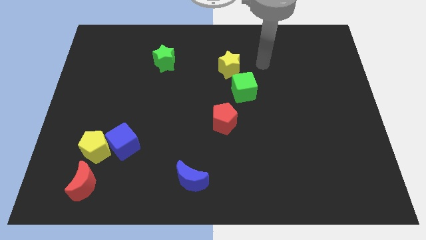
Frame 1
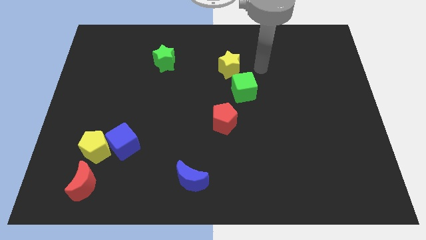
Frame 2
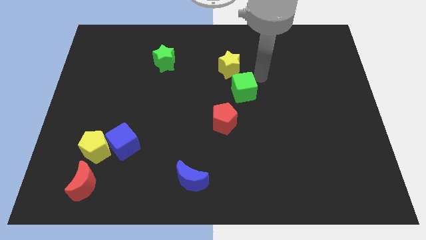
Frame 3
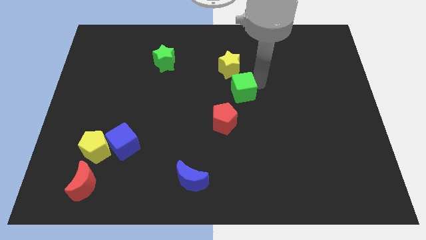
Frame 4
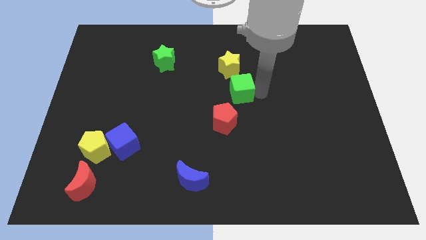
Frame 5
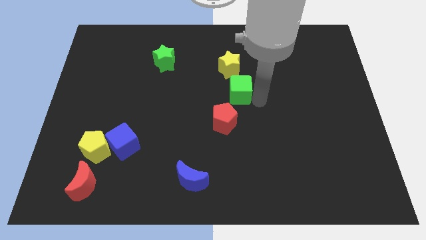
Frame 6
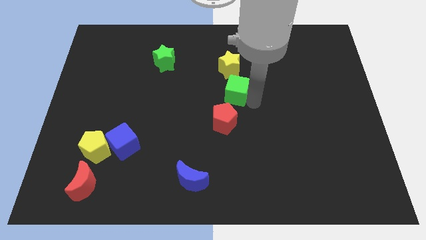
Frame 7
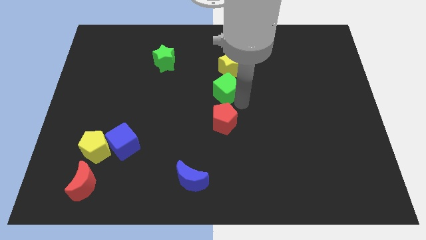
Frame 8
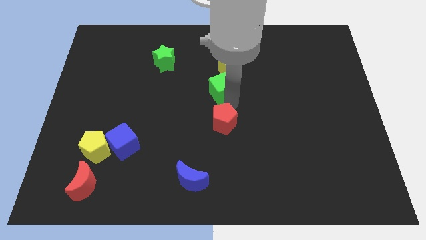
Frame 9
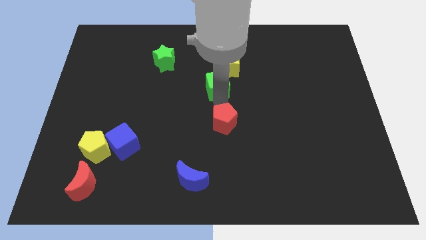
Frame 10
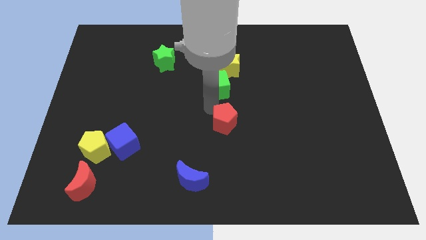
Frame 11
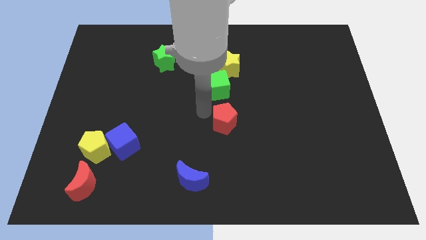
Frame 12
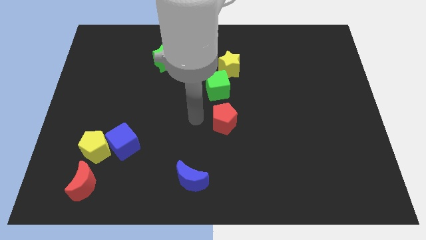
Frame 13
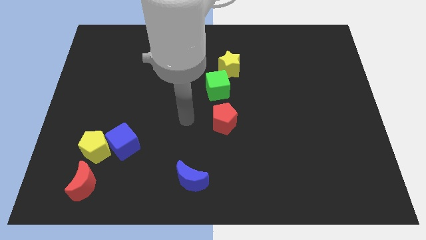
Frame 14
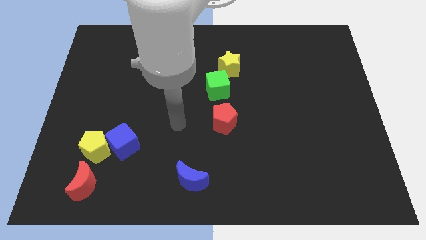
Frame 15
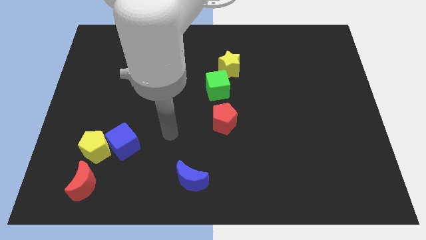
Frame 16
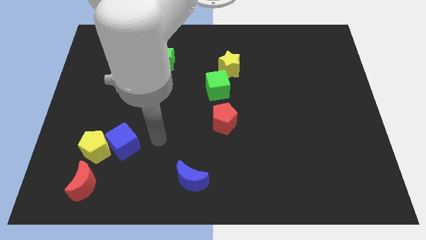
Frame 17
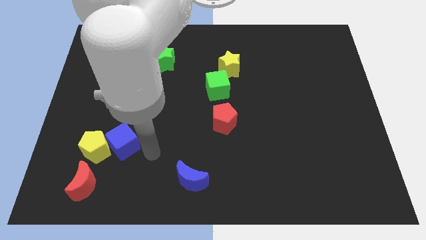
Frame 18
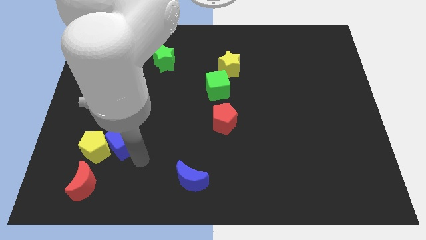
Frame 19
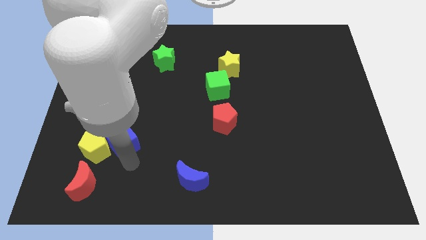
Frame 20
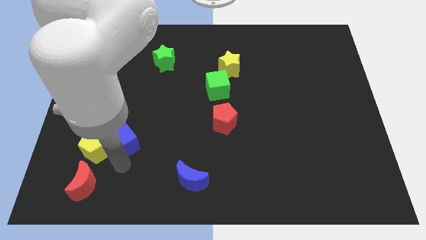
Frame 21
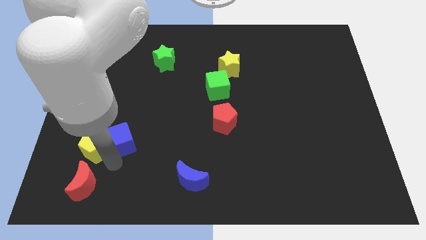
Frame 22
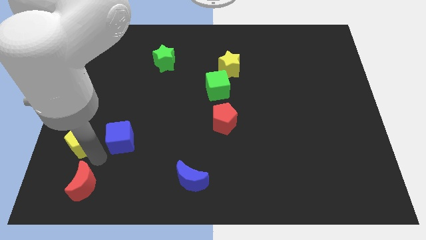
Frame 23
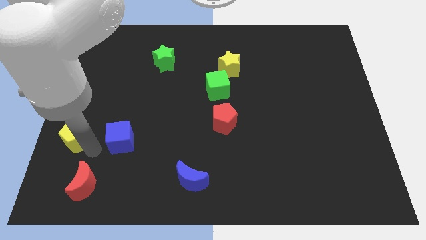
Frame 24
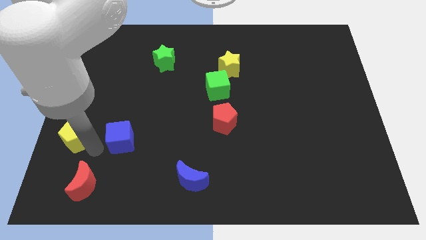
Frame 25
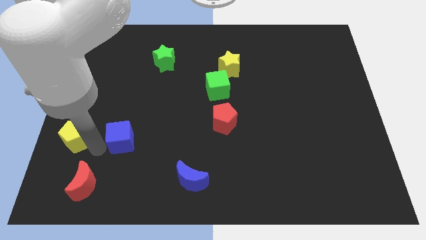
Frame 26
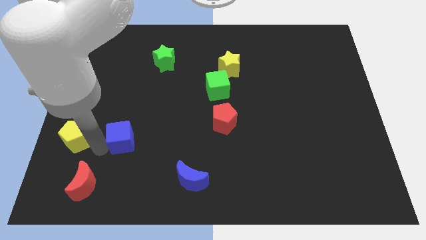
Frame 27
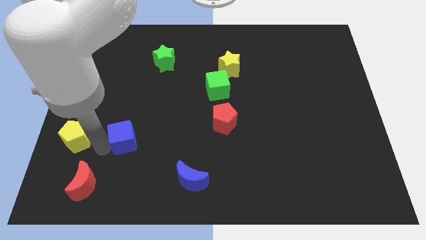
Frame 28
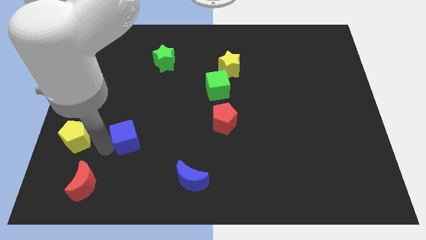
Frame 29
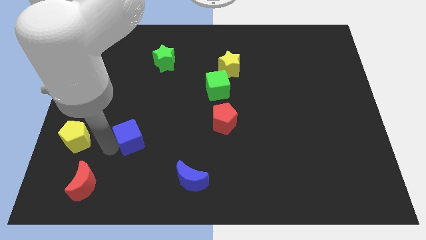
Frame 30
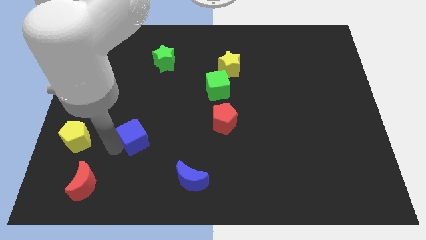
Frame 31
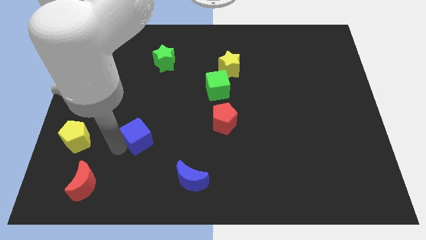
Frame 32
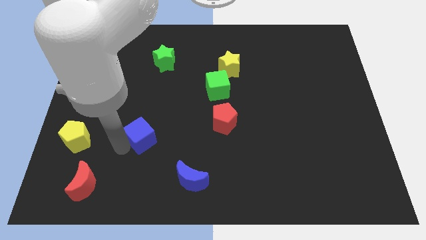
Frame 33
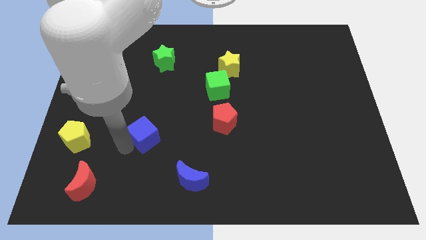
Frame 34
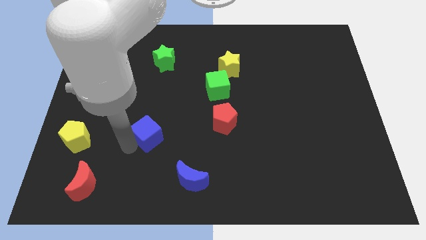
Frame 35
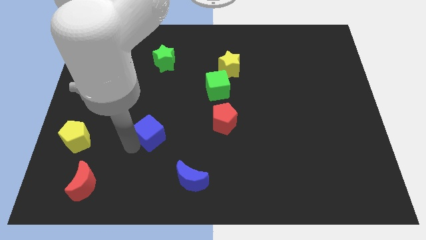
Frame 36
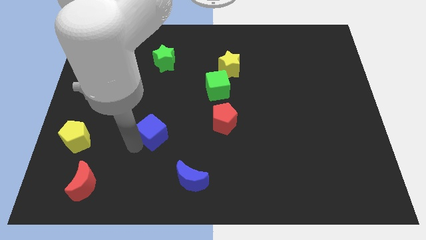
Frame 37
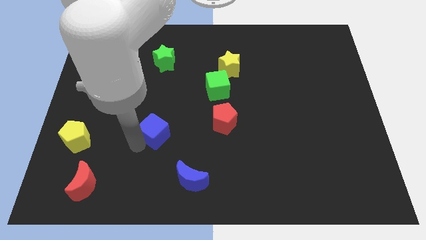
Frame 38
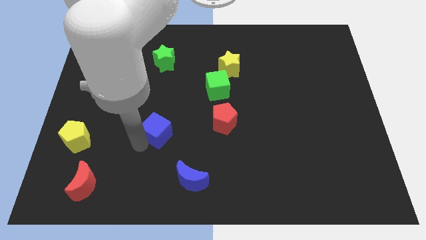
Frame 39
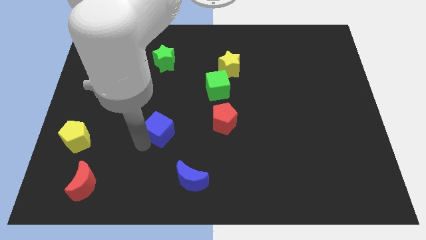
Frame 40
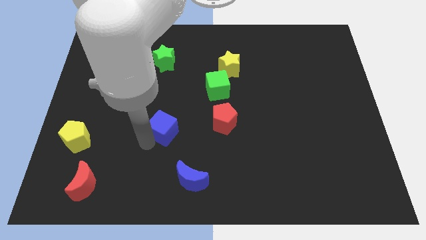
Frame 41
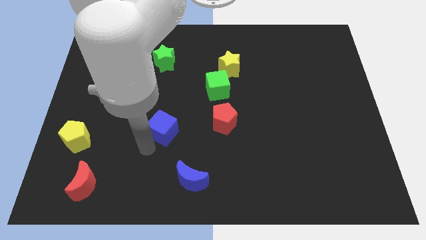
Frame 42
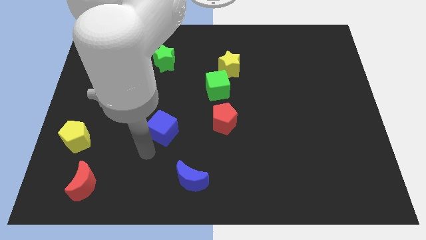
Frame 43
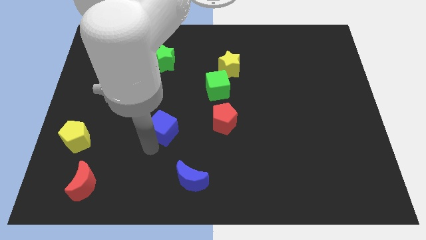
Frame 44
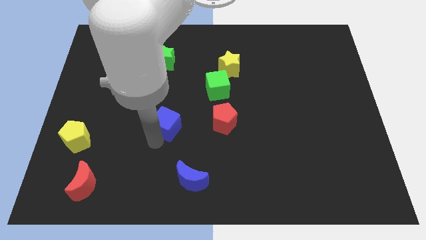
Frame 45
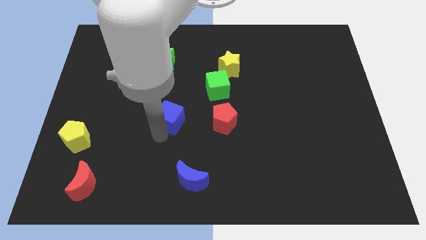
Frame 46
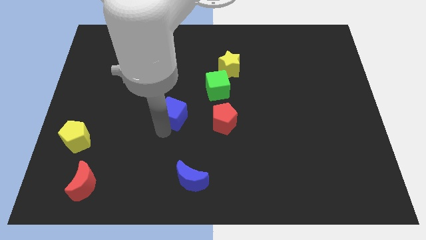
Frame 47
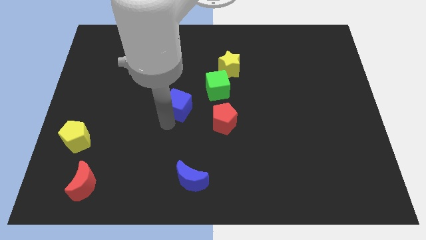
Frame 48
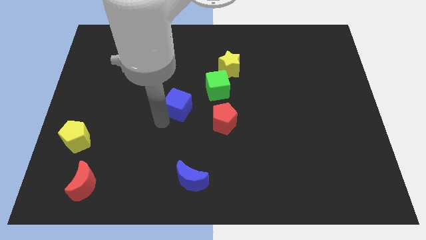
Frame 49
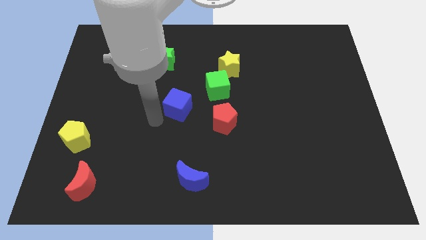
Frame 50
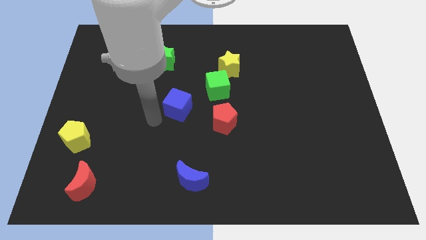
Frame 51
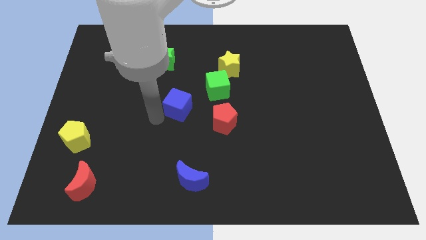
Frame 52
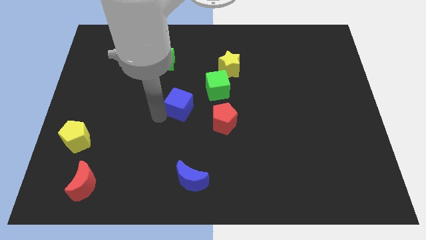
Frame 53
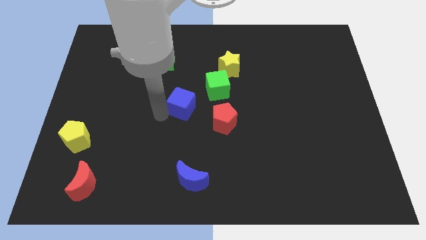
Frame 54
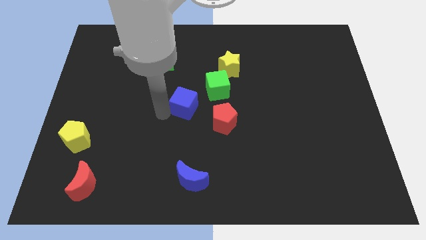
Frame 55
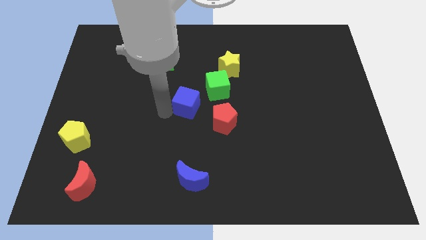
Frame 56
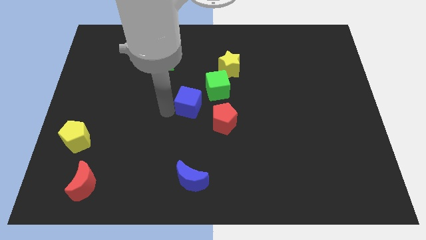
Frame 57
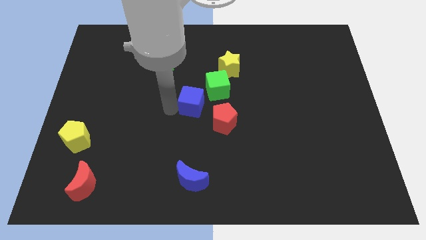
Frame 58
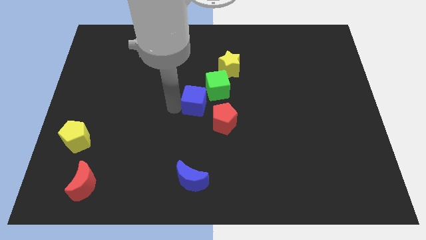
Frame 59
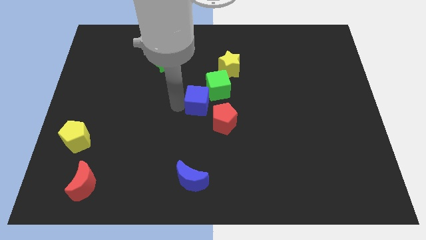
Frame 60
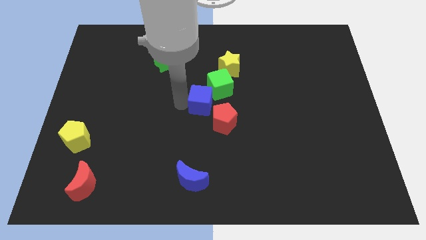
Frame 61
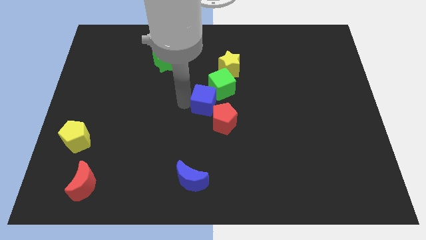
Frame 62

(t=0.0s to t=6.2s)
put the blue cube to the top of the red pentagon

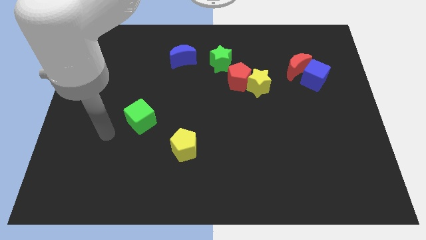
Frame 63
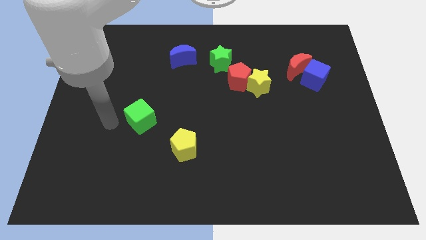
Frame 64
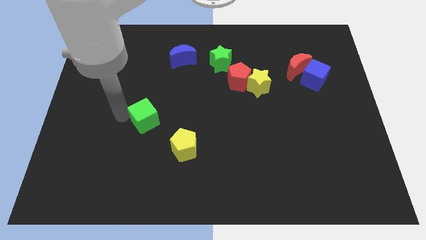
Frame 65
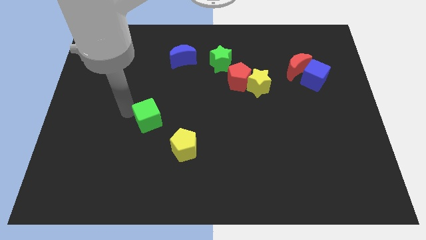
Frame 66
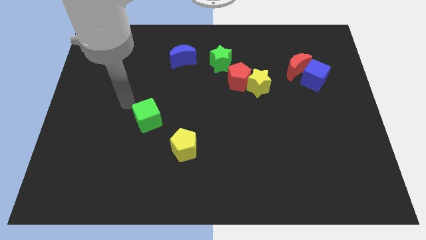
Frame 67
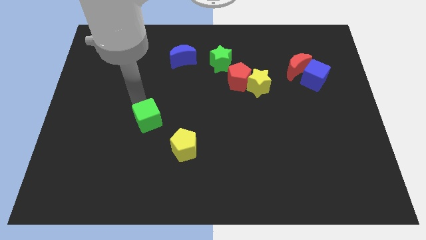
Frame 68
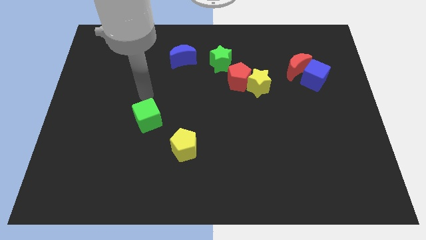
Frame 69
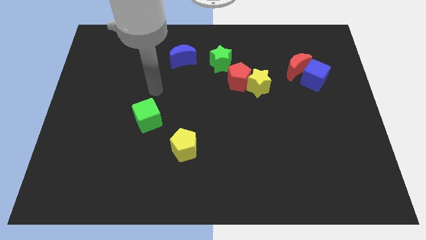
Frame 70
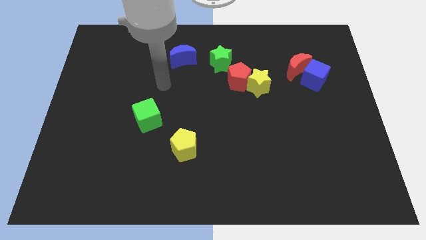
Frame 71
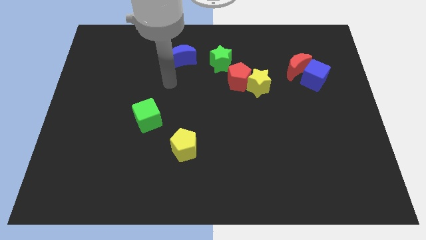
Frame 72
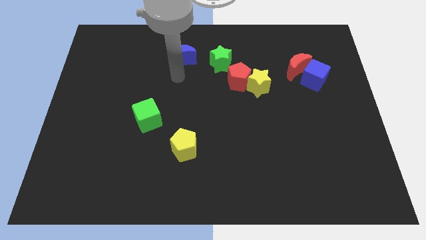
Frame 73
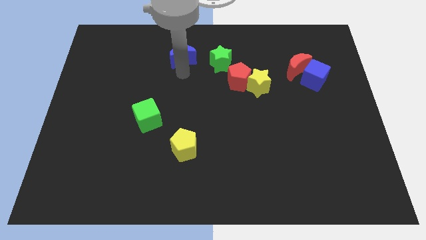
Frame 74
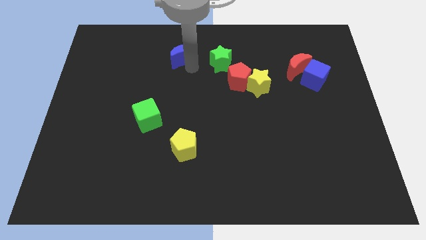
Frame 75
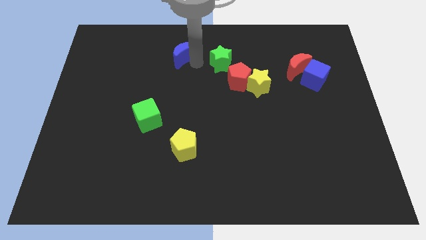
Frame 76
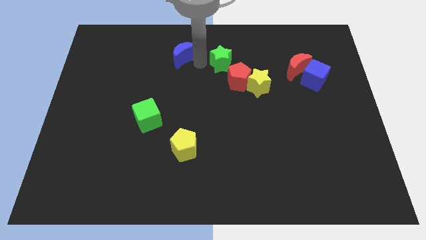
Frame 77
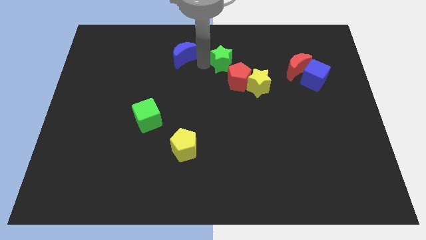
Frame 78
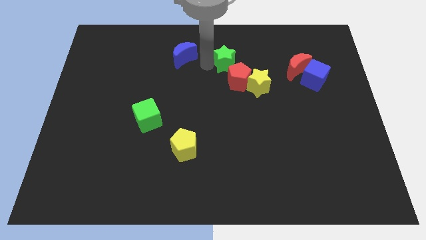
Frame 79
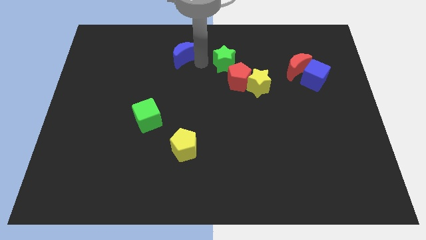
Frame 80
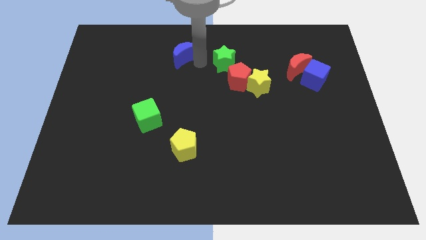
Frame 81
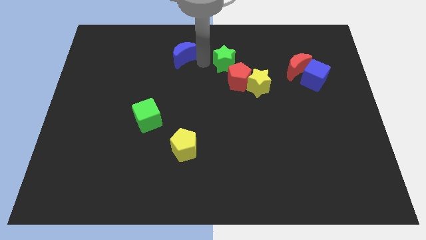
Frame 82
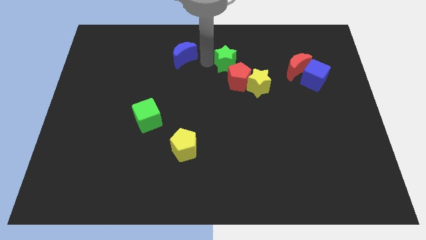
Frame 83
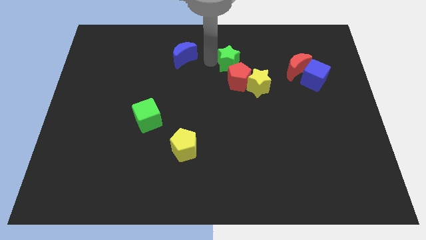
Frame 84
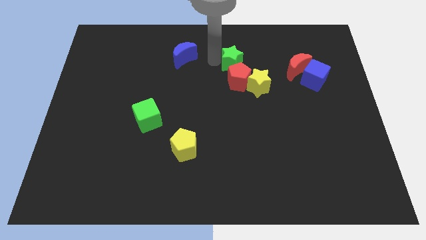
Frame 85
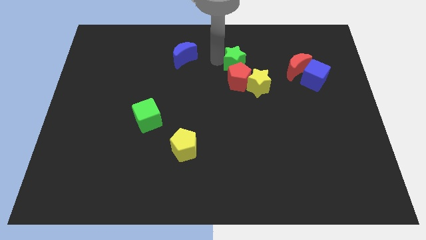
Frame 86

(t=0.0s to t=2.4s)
move the green star diagonally up and to the right of the red pentagon
